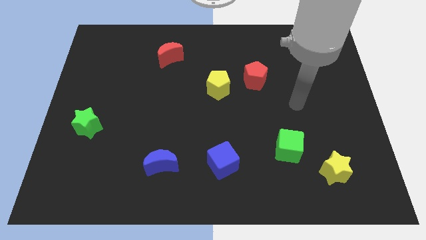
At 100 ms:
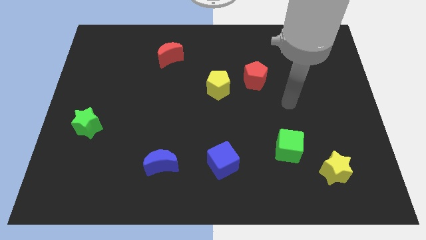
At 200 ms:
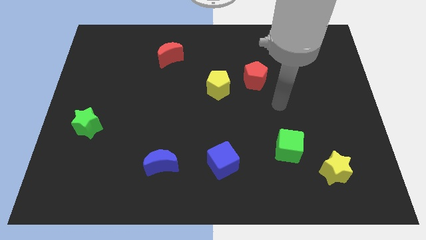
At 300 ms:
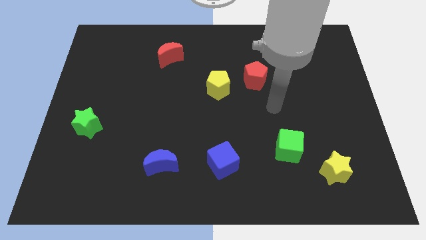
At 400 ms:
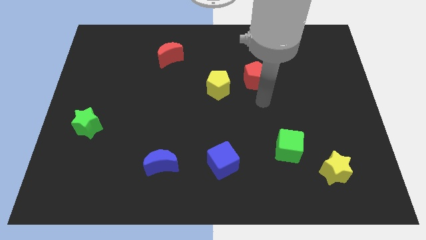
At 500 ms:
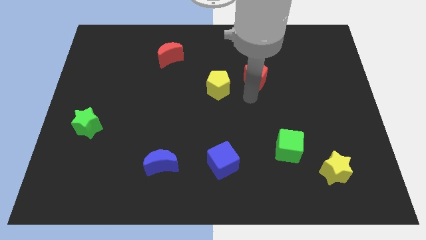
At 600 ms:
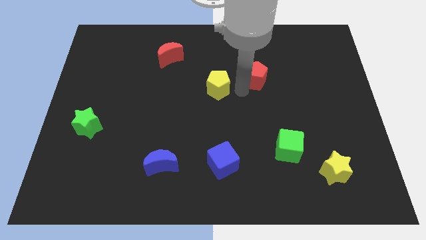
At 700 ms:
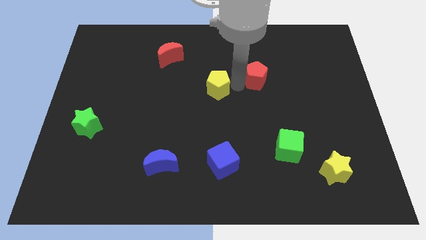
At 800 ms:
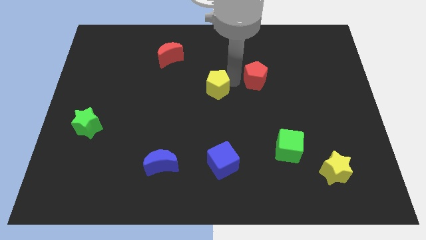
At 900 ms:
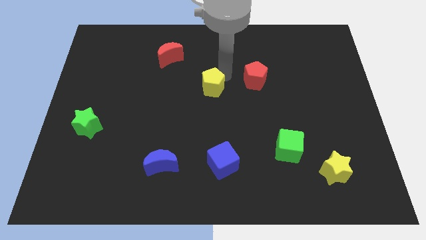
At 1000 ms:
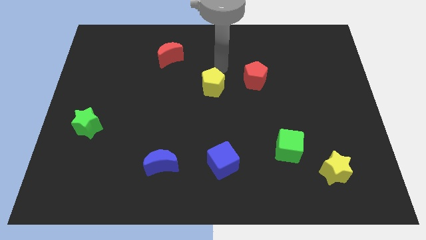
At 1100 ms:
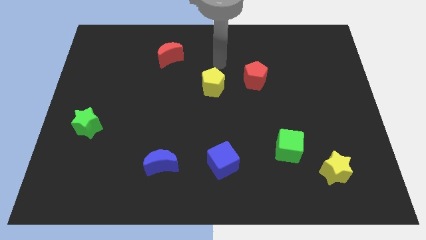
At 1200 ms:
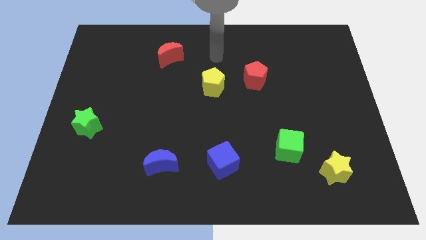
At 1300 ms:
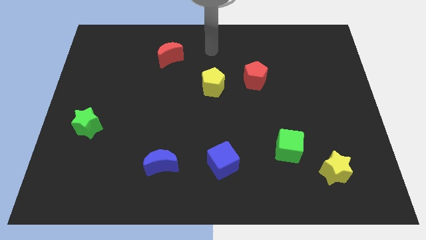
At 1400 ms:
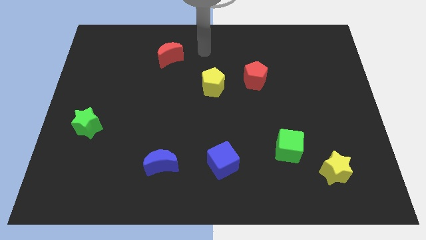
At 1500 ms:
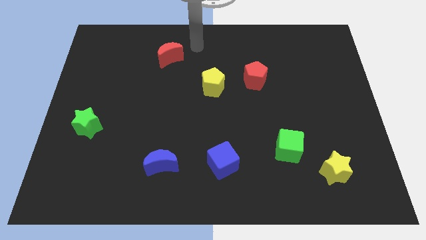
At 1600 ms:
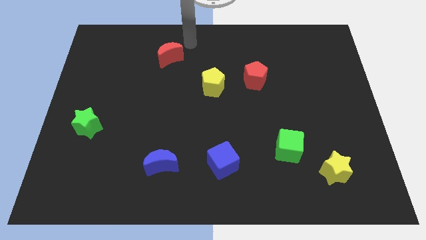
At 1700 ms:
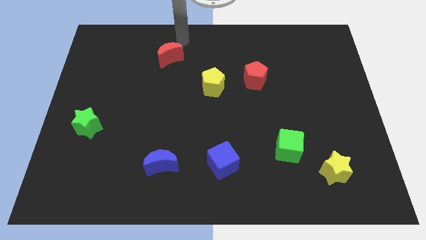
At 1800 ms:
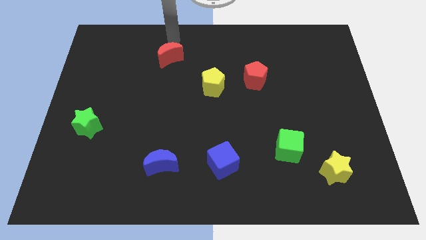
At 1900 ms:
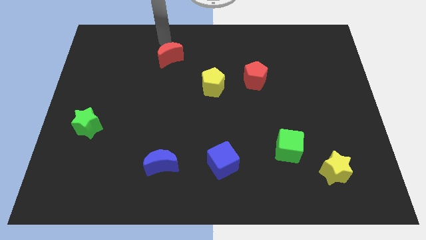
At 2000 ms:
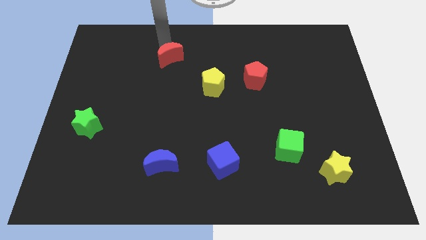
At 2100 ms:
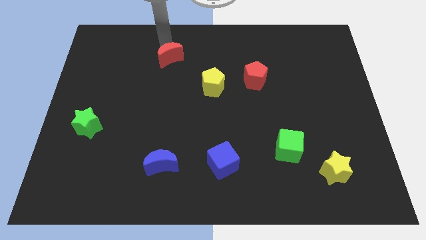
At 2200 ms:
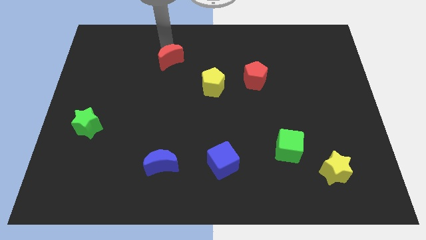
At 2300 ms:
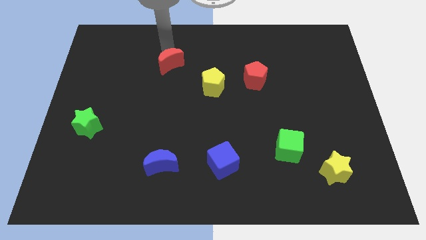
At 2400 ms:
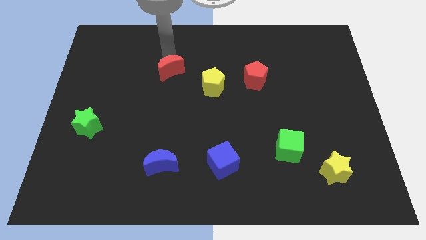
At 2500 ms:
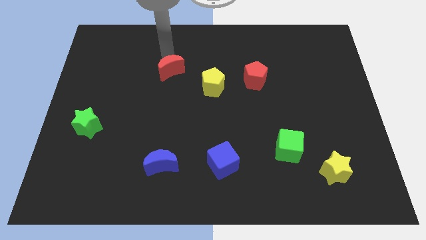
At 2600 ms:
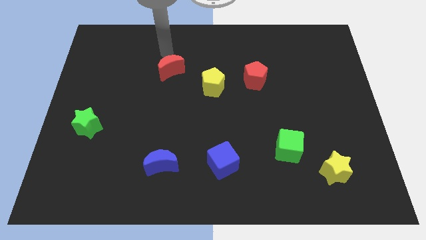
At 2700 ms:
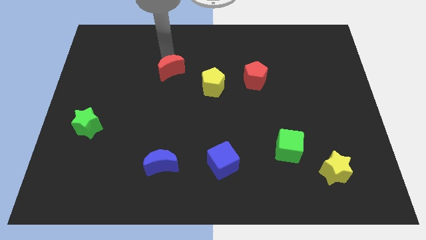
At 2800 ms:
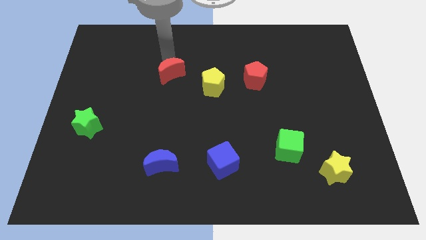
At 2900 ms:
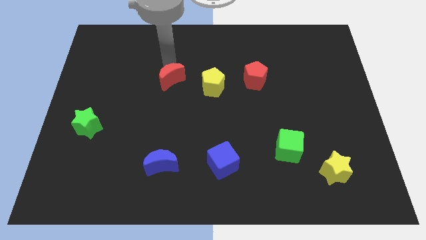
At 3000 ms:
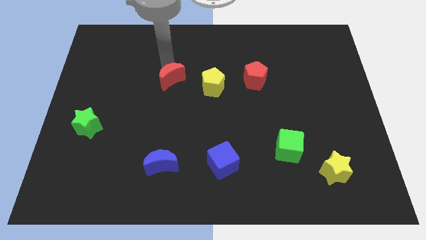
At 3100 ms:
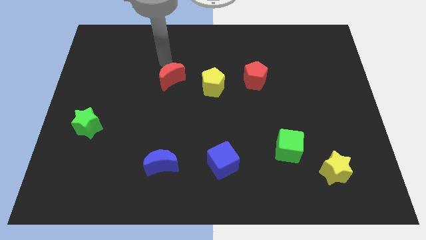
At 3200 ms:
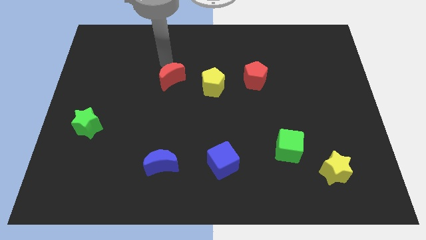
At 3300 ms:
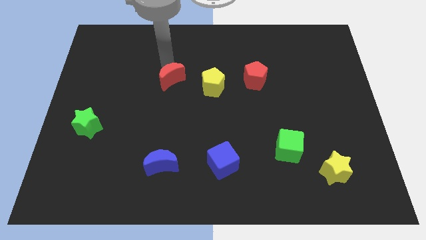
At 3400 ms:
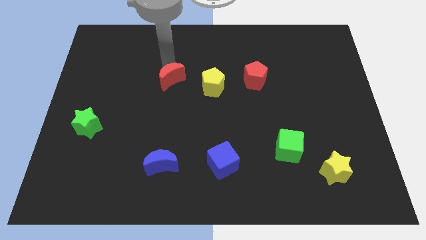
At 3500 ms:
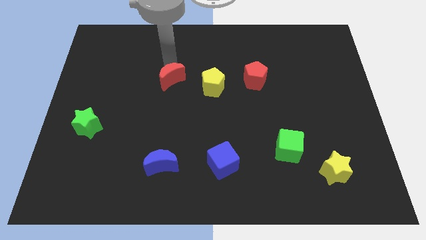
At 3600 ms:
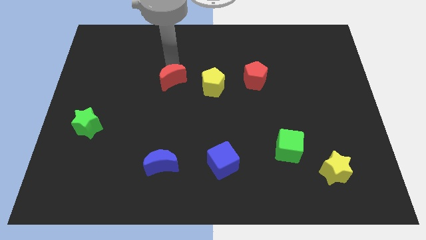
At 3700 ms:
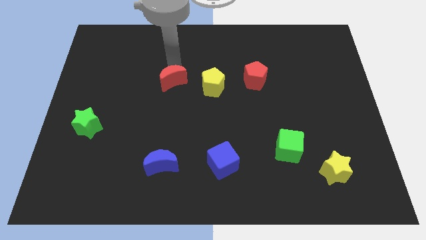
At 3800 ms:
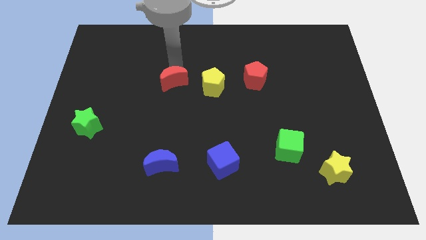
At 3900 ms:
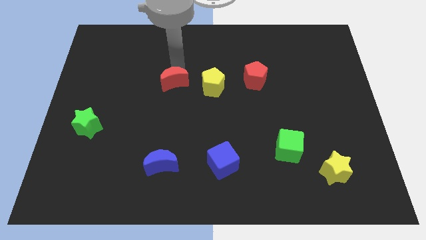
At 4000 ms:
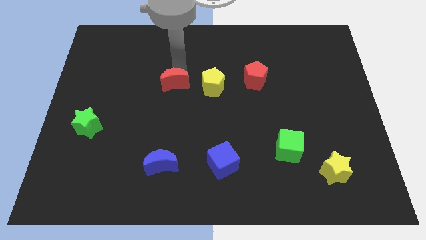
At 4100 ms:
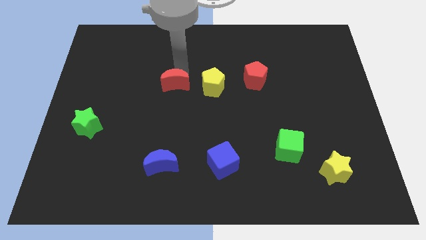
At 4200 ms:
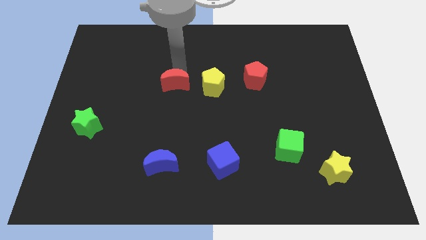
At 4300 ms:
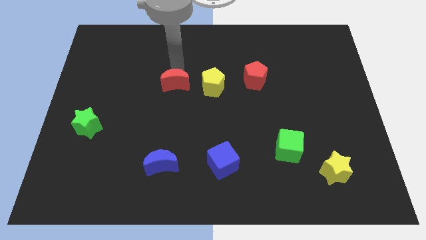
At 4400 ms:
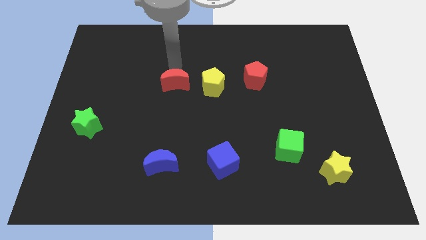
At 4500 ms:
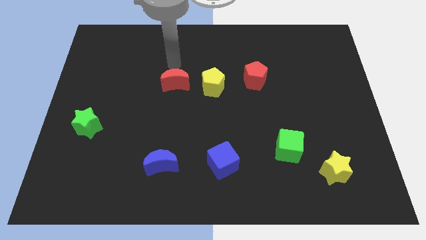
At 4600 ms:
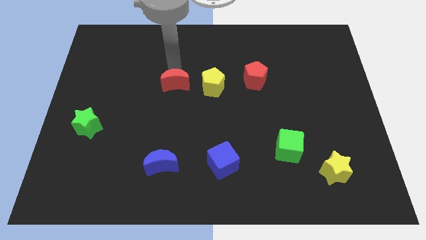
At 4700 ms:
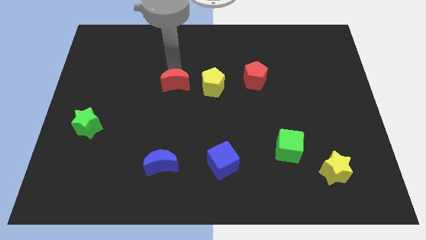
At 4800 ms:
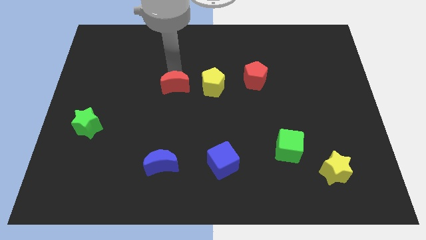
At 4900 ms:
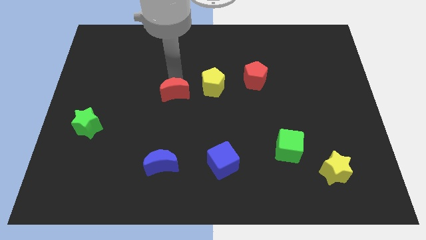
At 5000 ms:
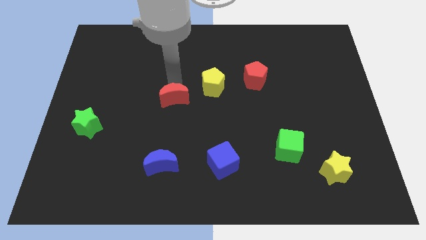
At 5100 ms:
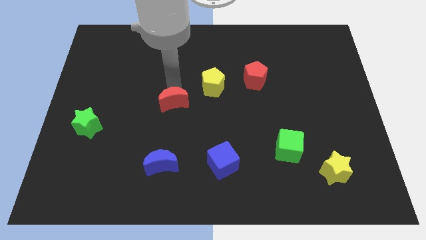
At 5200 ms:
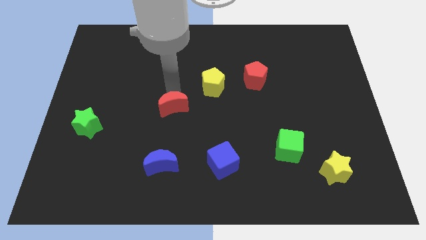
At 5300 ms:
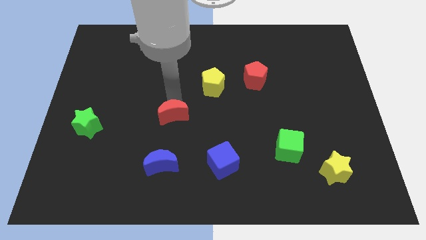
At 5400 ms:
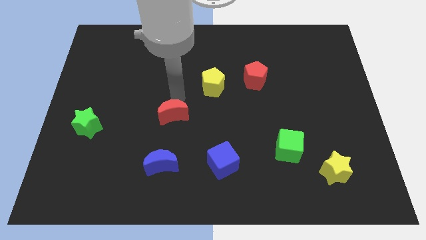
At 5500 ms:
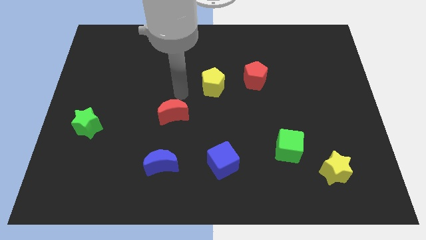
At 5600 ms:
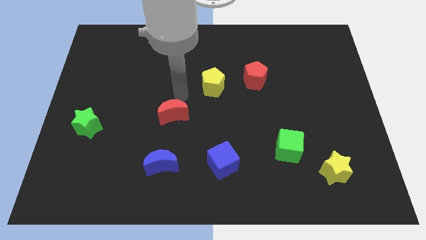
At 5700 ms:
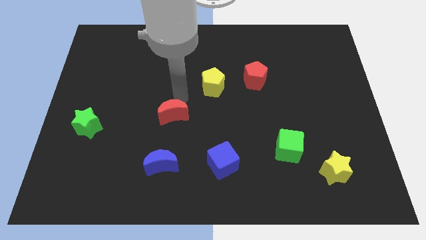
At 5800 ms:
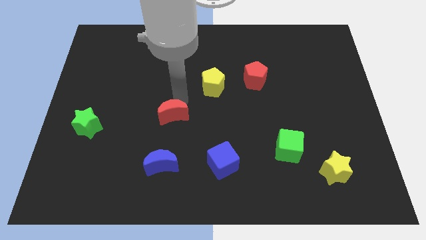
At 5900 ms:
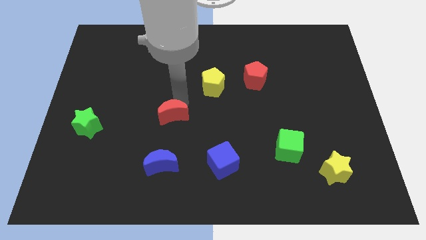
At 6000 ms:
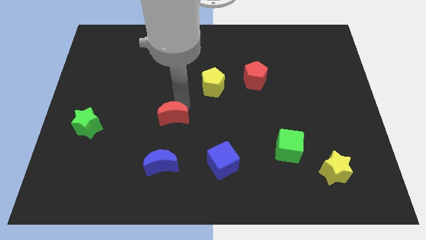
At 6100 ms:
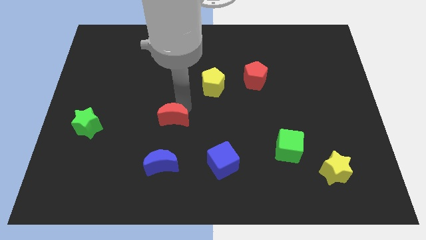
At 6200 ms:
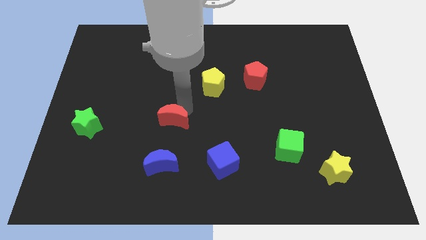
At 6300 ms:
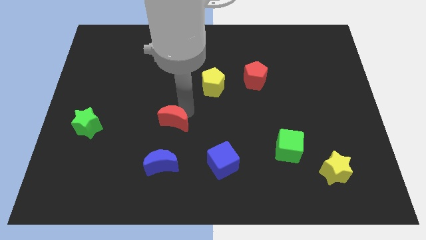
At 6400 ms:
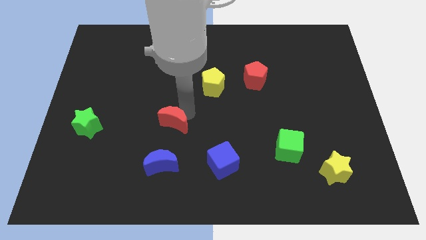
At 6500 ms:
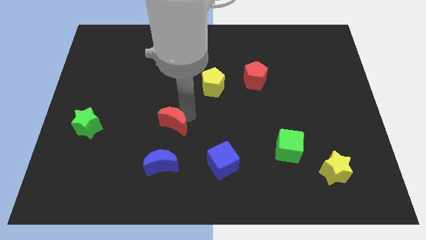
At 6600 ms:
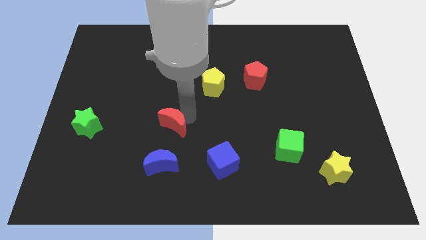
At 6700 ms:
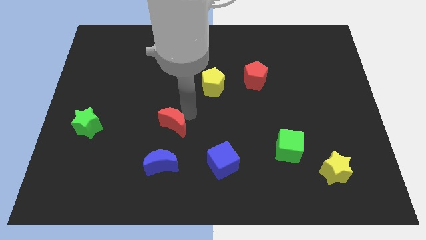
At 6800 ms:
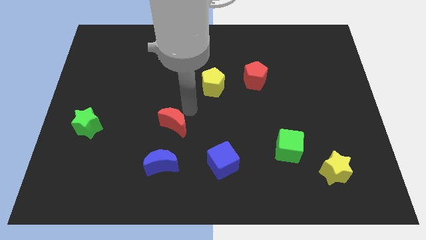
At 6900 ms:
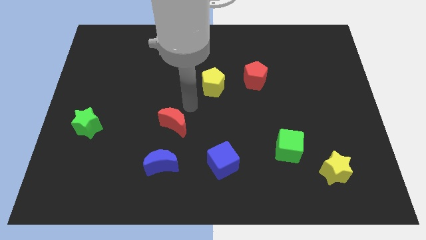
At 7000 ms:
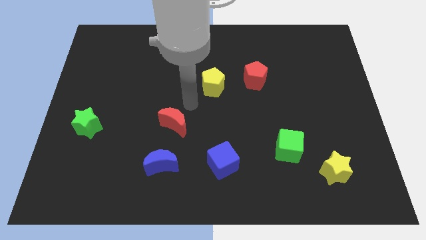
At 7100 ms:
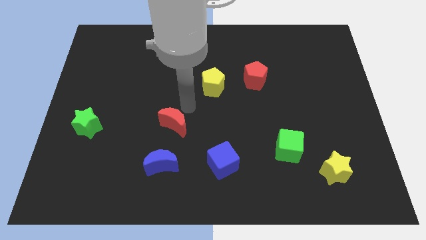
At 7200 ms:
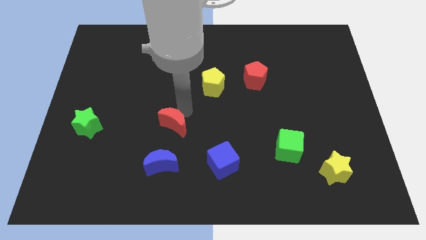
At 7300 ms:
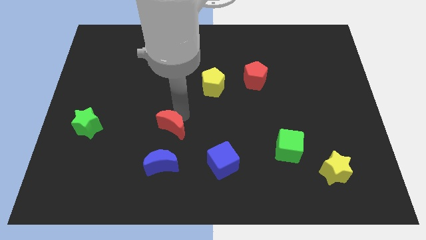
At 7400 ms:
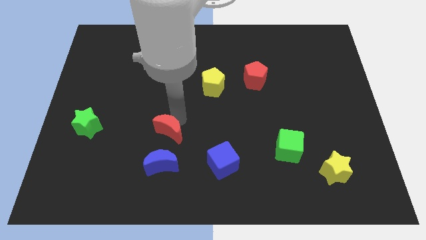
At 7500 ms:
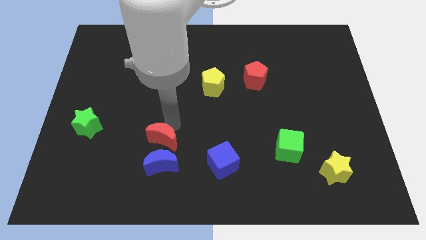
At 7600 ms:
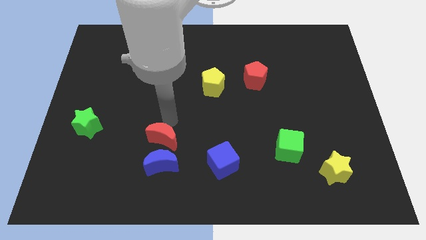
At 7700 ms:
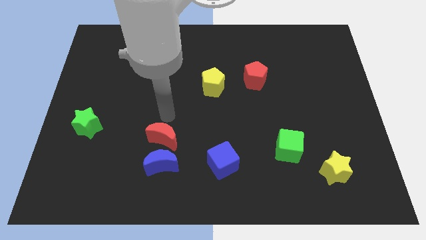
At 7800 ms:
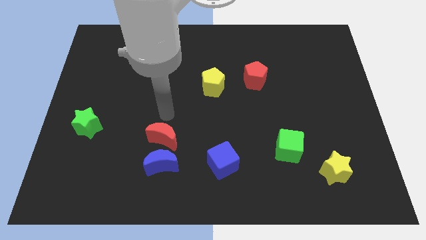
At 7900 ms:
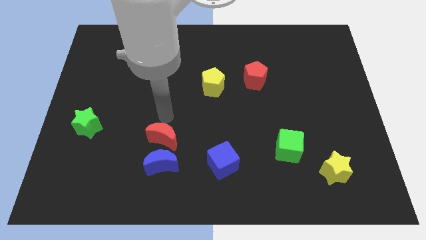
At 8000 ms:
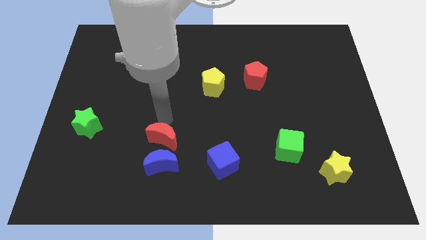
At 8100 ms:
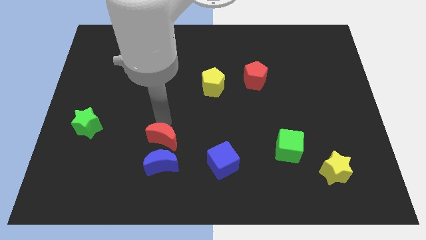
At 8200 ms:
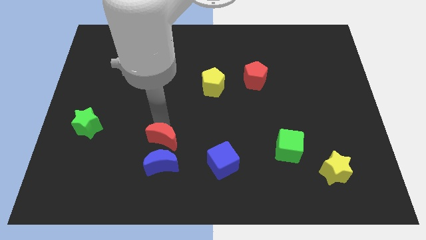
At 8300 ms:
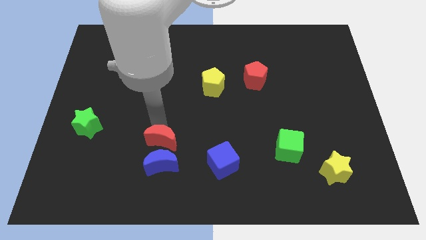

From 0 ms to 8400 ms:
push the red moon close to the blue moon

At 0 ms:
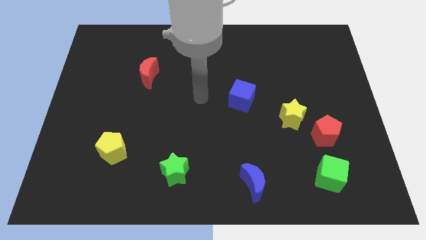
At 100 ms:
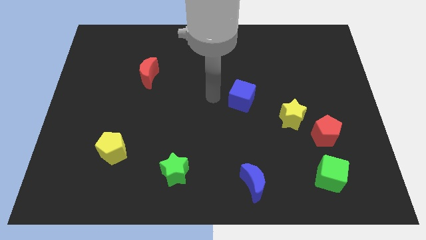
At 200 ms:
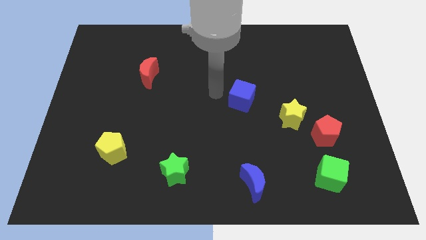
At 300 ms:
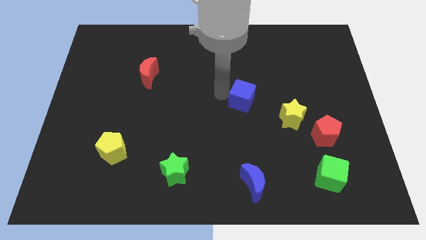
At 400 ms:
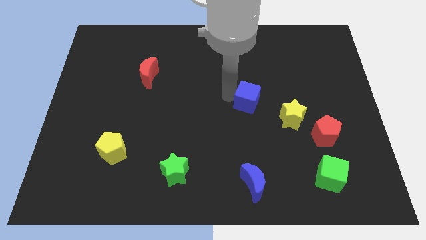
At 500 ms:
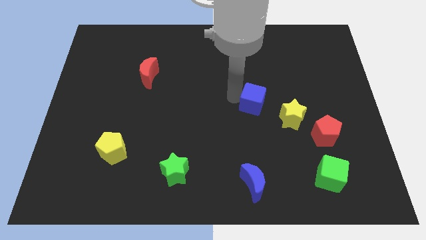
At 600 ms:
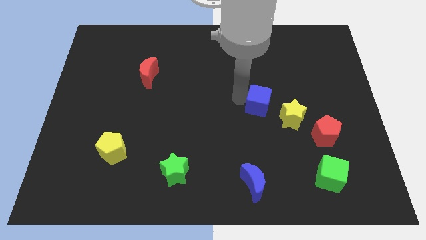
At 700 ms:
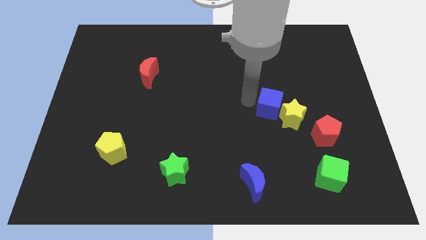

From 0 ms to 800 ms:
push the blue cube next to the yellow star
